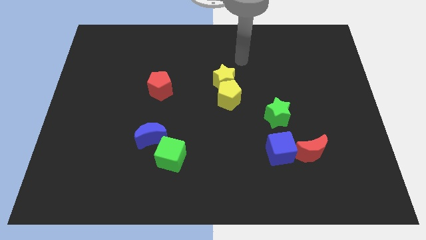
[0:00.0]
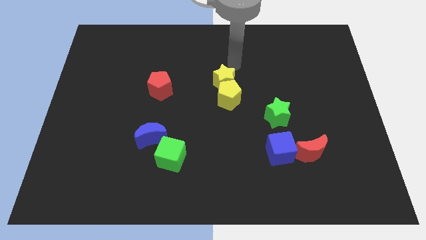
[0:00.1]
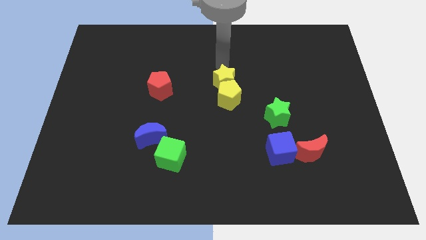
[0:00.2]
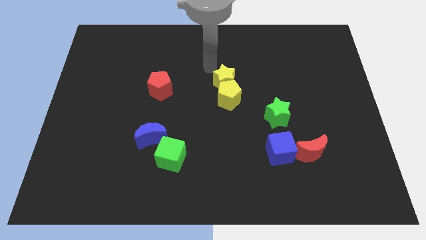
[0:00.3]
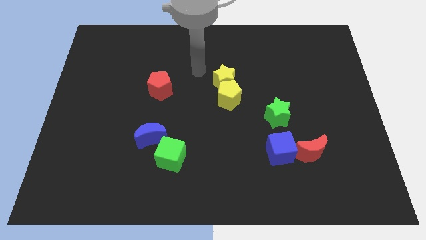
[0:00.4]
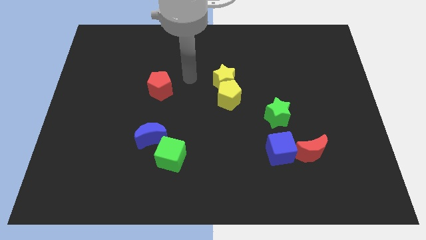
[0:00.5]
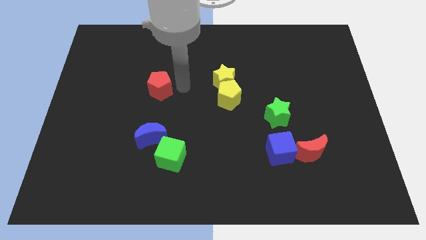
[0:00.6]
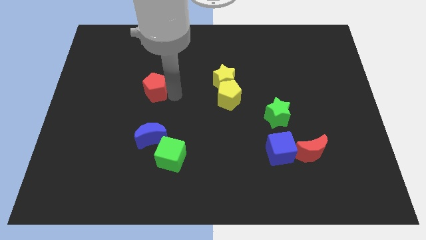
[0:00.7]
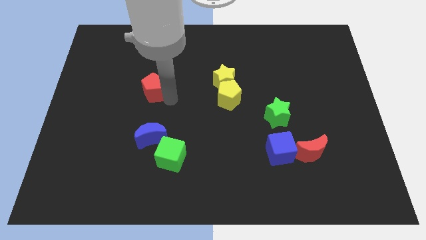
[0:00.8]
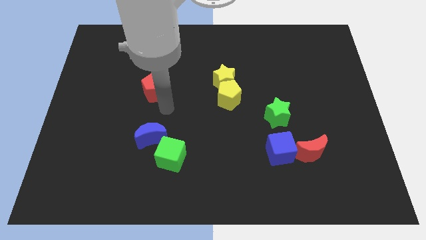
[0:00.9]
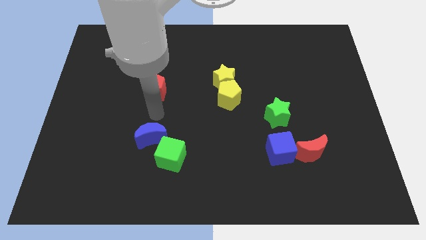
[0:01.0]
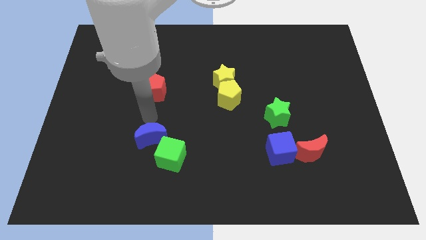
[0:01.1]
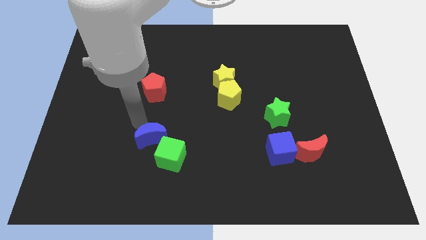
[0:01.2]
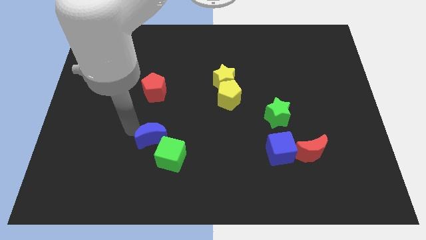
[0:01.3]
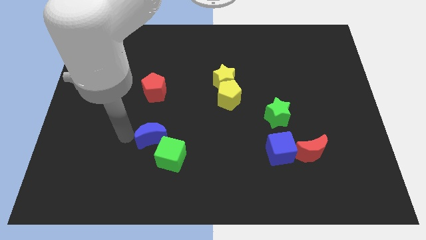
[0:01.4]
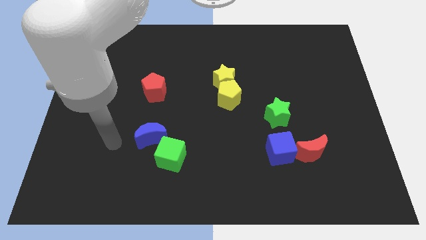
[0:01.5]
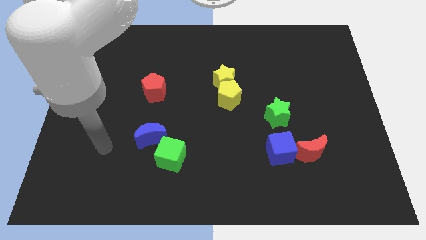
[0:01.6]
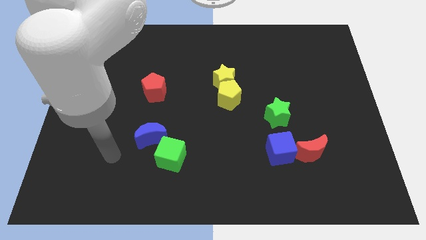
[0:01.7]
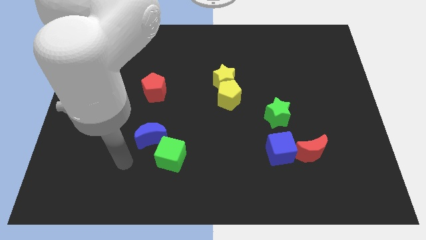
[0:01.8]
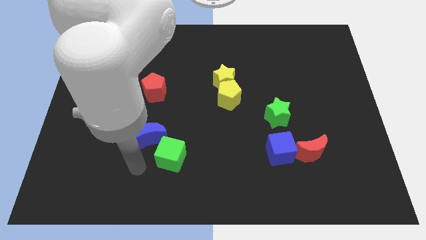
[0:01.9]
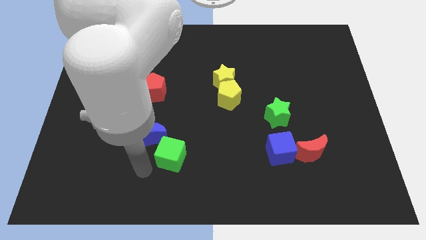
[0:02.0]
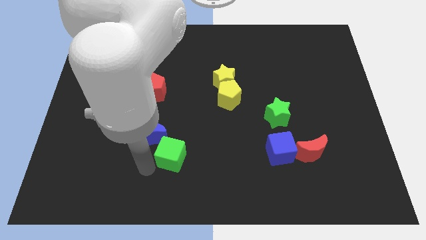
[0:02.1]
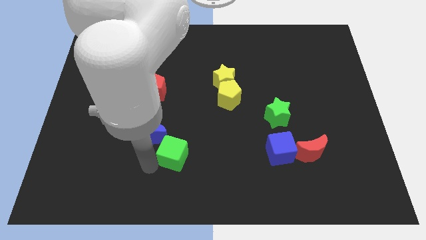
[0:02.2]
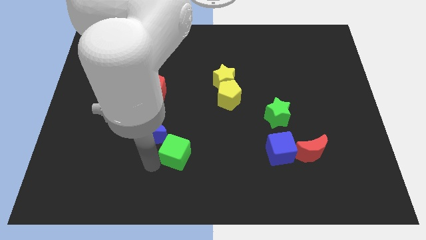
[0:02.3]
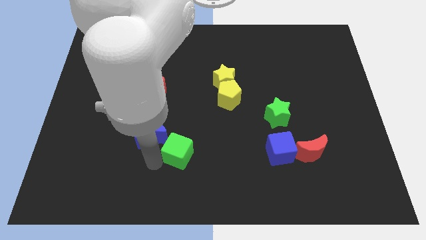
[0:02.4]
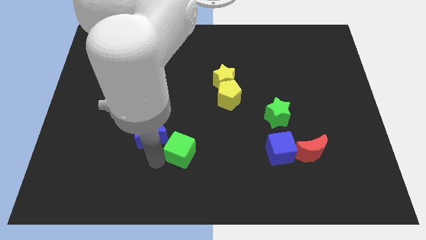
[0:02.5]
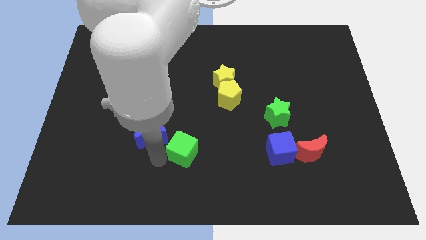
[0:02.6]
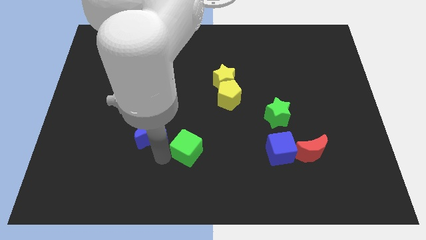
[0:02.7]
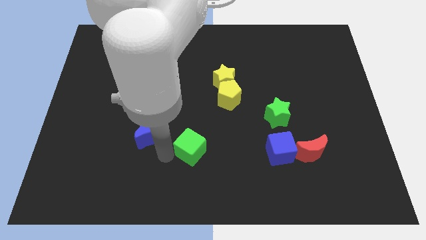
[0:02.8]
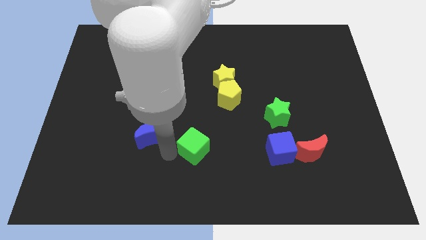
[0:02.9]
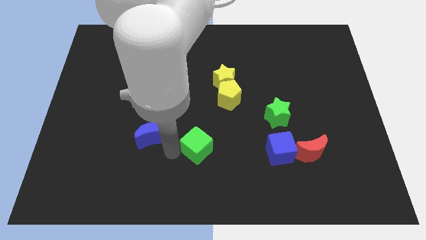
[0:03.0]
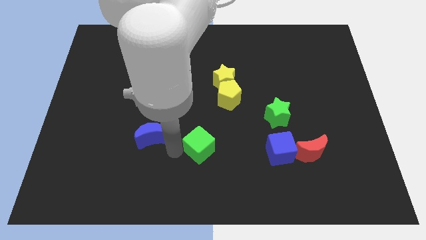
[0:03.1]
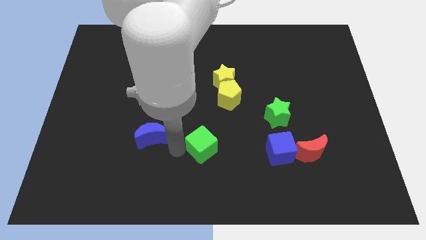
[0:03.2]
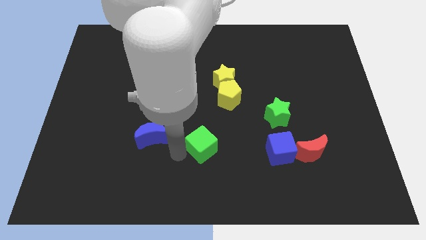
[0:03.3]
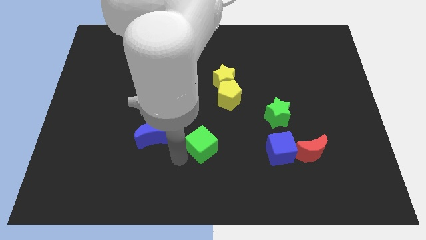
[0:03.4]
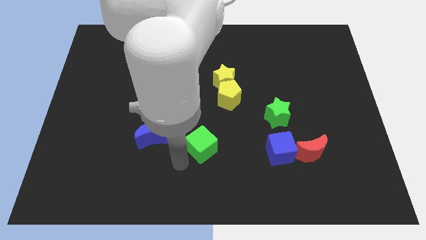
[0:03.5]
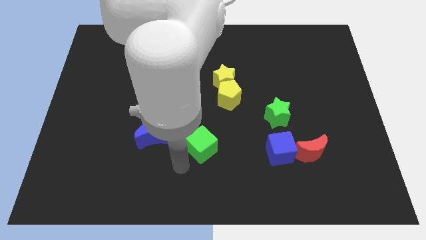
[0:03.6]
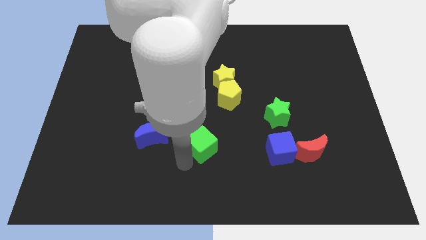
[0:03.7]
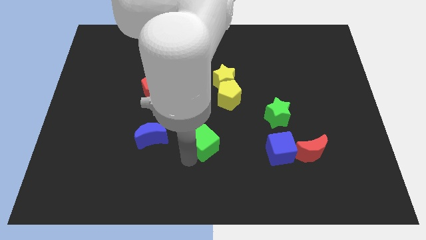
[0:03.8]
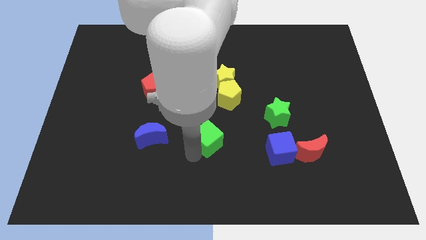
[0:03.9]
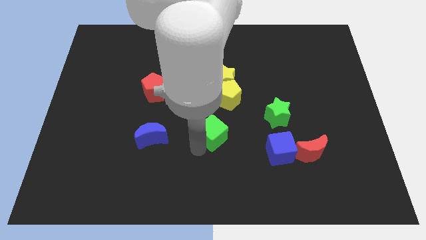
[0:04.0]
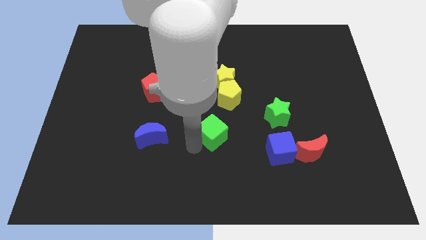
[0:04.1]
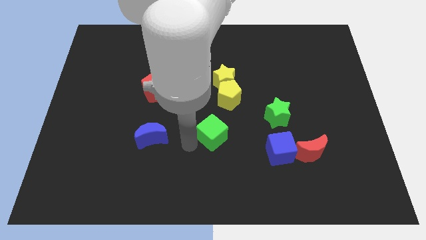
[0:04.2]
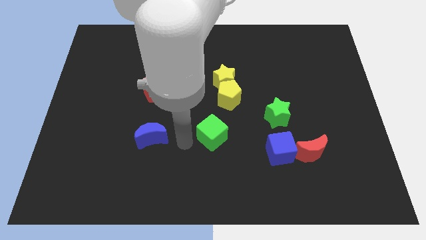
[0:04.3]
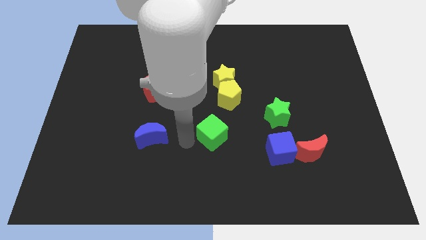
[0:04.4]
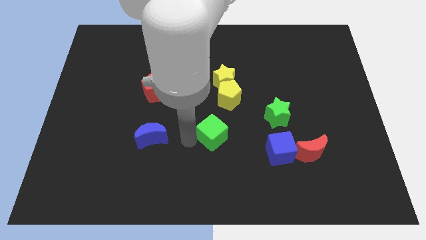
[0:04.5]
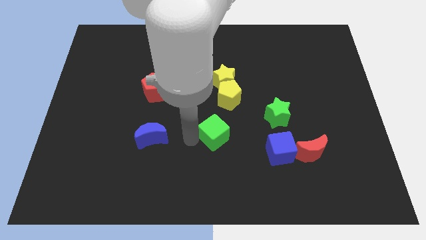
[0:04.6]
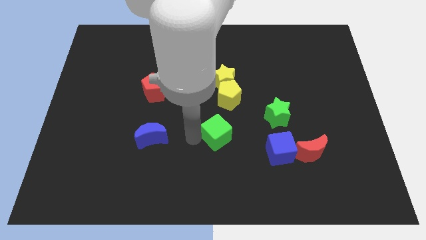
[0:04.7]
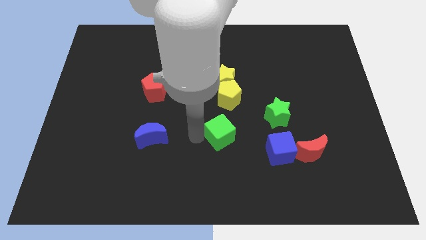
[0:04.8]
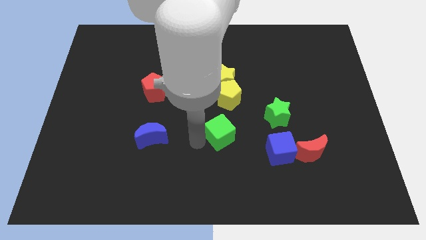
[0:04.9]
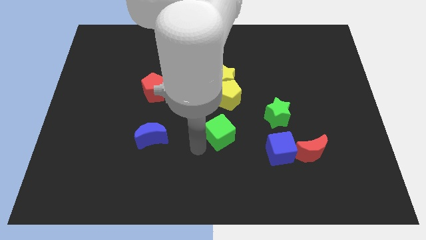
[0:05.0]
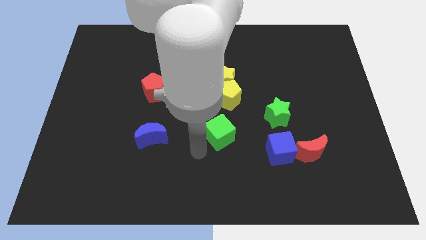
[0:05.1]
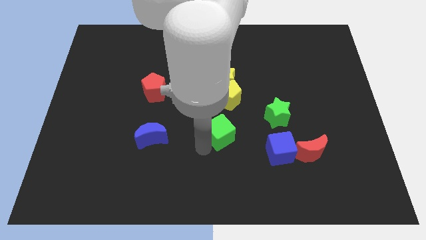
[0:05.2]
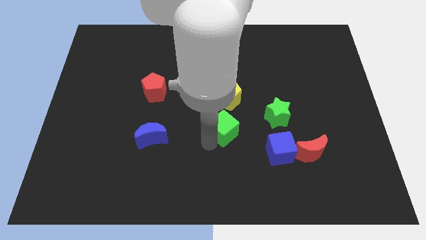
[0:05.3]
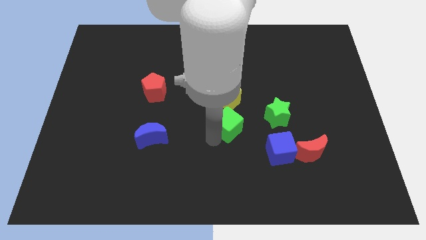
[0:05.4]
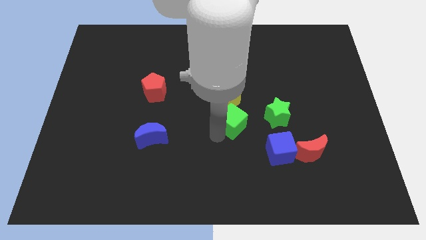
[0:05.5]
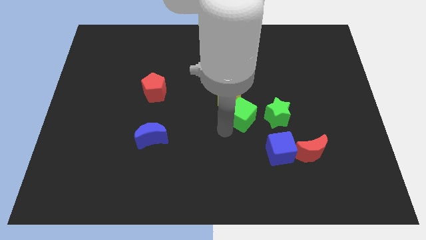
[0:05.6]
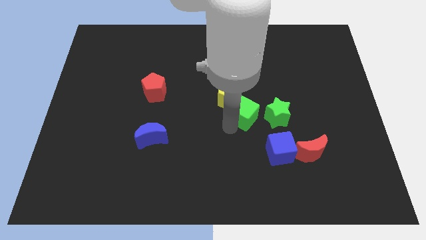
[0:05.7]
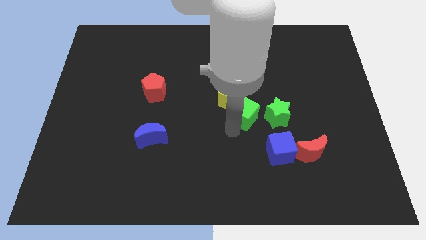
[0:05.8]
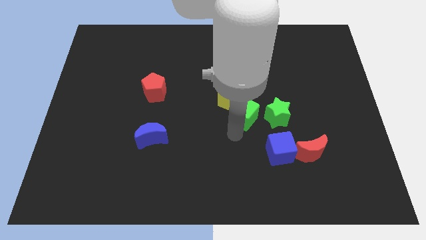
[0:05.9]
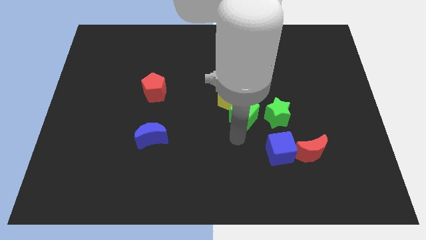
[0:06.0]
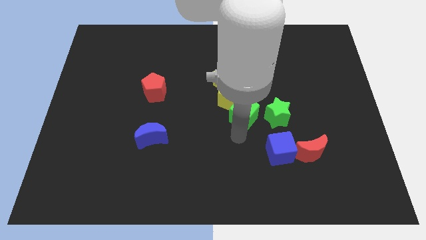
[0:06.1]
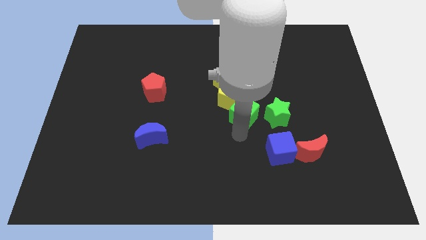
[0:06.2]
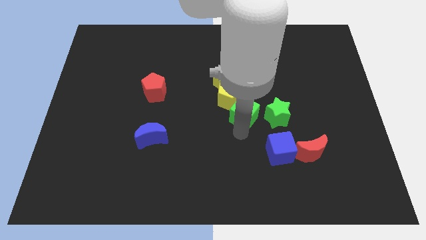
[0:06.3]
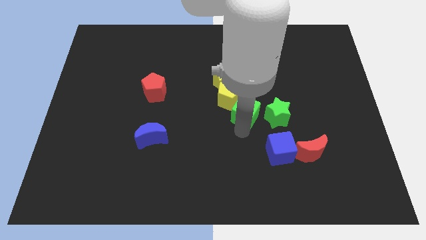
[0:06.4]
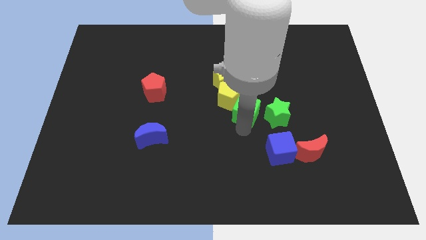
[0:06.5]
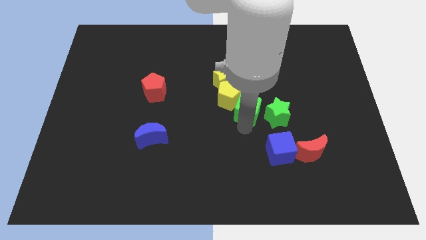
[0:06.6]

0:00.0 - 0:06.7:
slide the green cube upwards and to the right

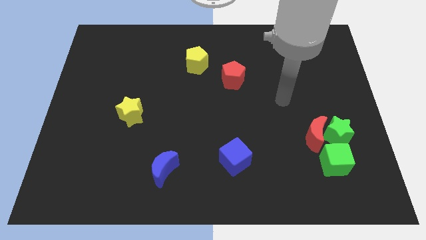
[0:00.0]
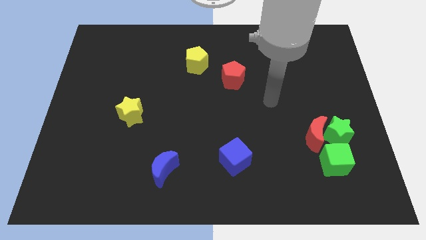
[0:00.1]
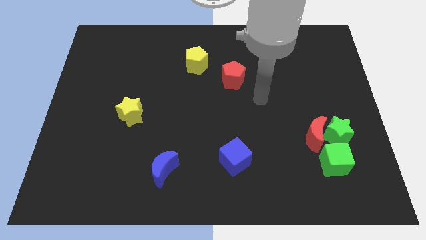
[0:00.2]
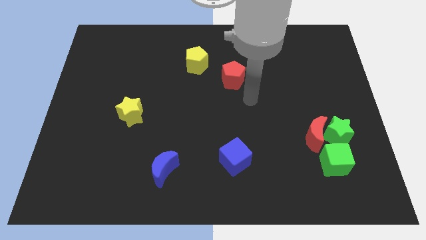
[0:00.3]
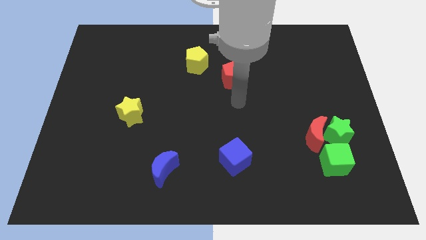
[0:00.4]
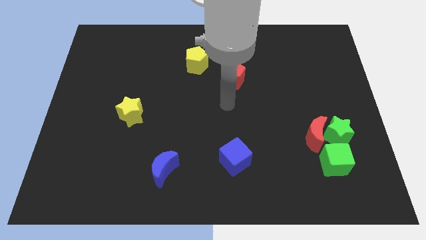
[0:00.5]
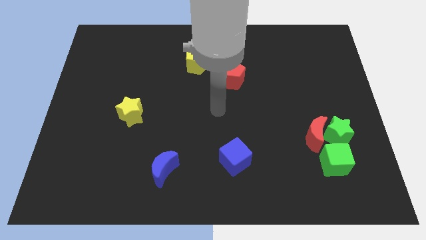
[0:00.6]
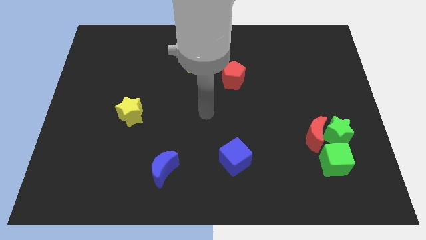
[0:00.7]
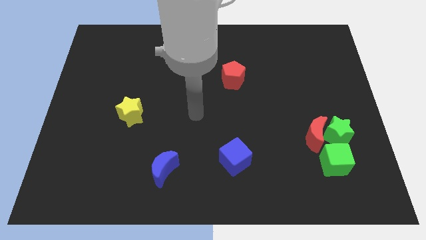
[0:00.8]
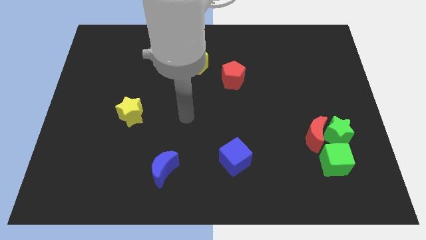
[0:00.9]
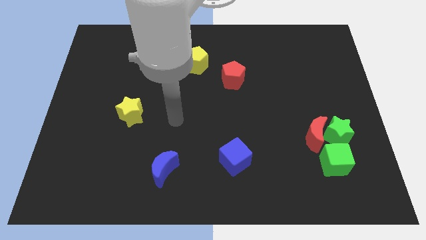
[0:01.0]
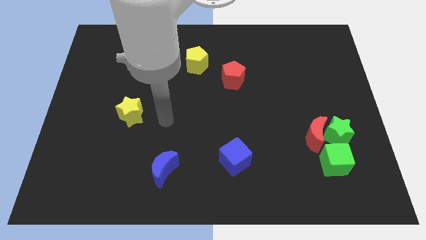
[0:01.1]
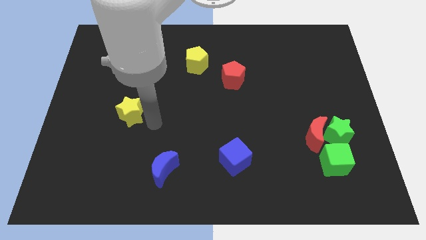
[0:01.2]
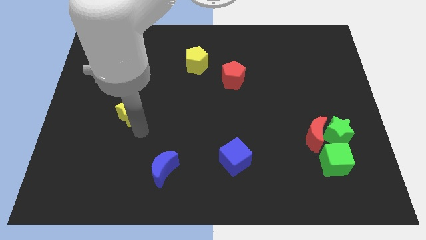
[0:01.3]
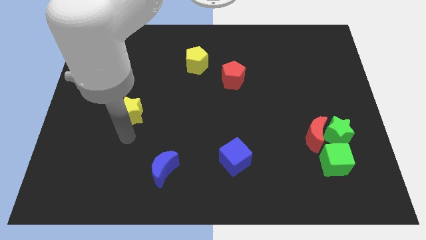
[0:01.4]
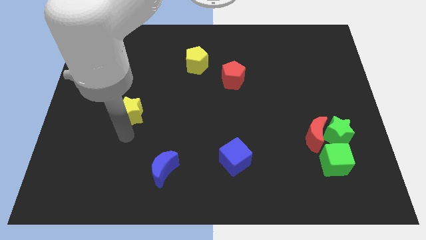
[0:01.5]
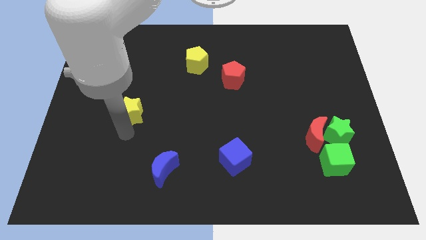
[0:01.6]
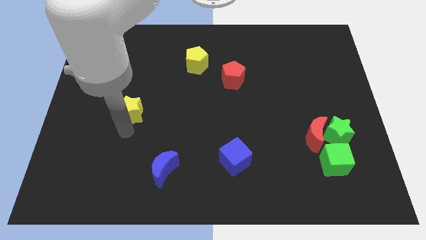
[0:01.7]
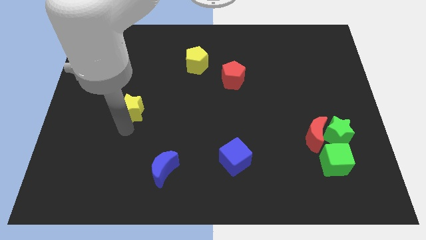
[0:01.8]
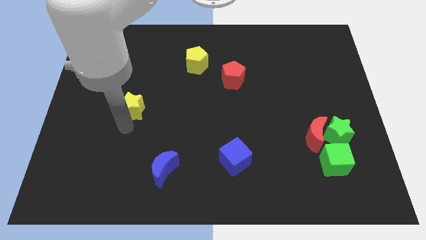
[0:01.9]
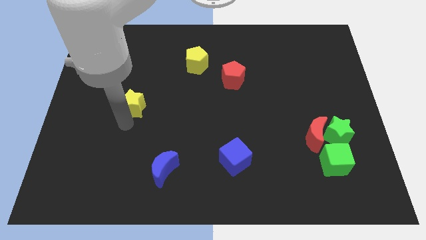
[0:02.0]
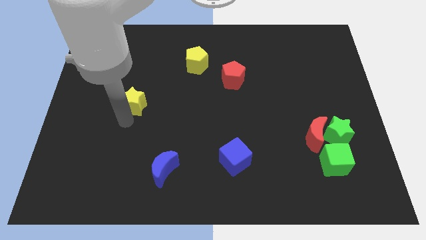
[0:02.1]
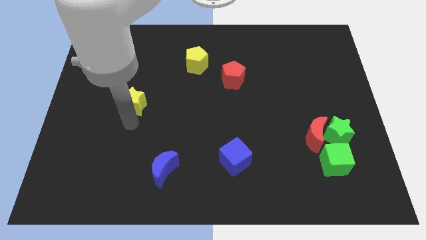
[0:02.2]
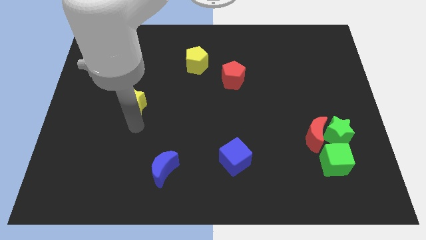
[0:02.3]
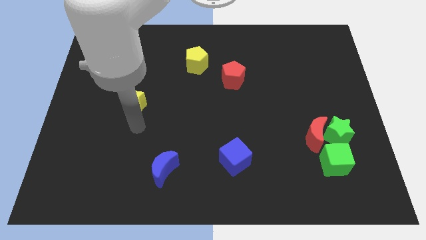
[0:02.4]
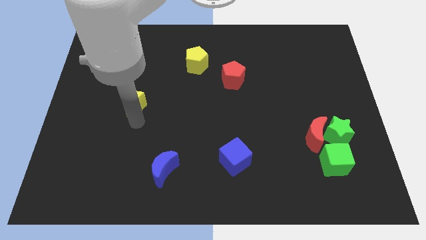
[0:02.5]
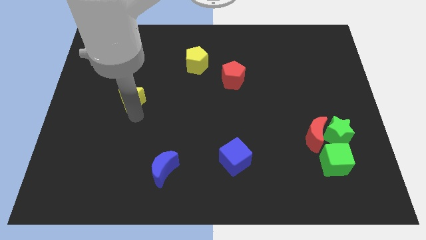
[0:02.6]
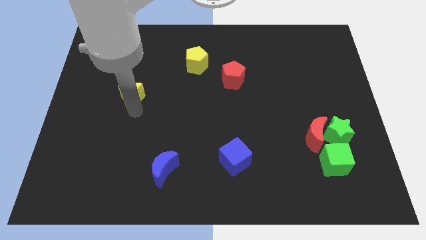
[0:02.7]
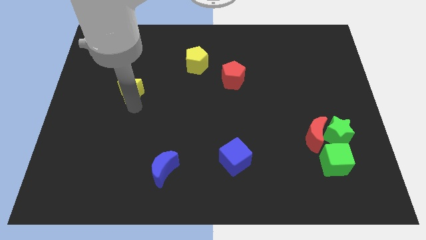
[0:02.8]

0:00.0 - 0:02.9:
slightly push the yellow star up
